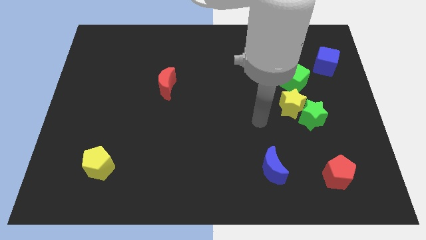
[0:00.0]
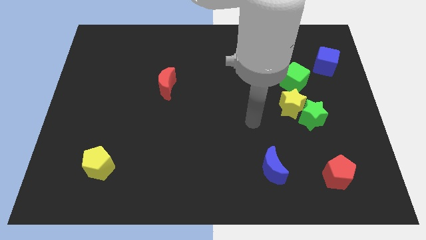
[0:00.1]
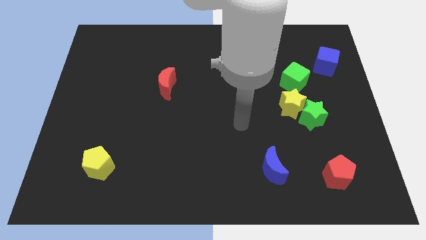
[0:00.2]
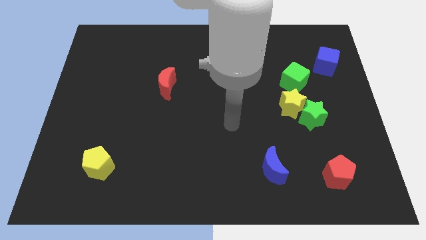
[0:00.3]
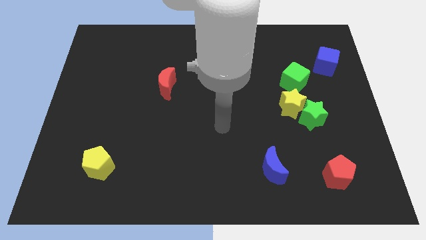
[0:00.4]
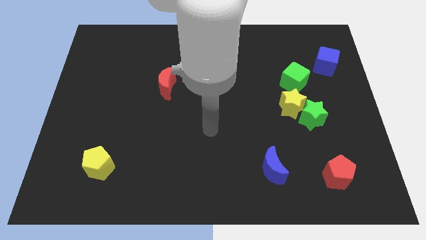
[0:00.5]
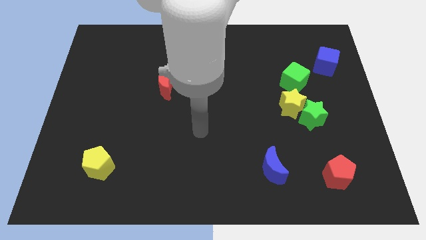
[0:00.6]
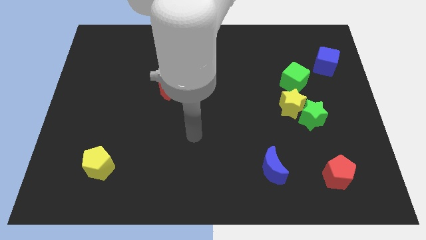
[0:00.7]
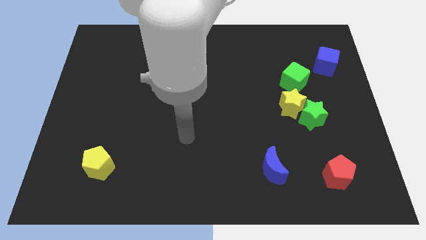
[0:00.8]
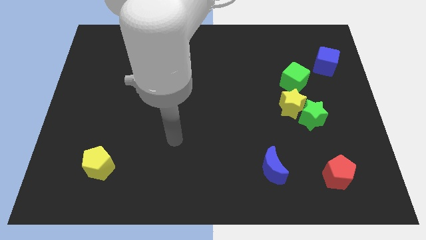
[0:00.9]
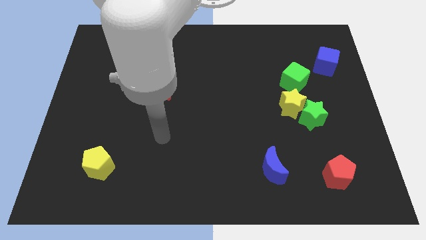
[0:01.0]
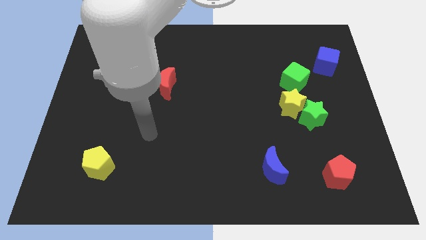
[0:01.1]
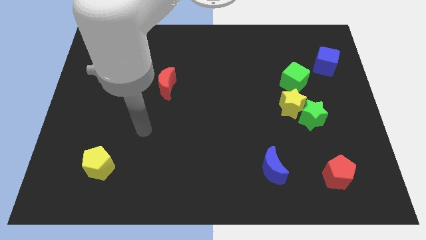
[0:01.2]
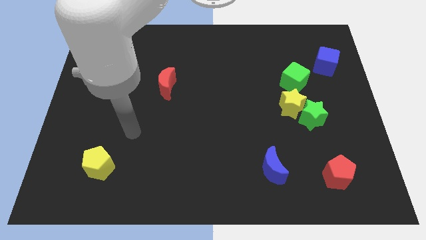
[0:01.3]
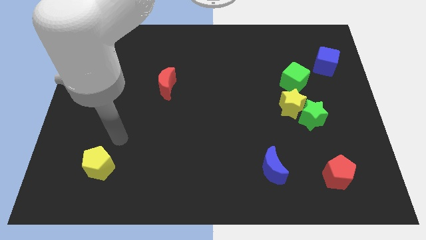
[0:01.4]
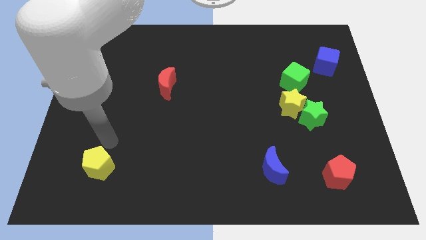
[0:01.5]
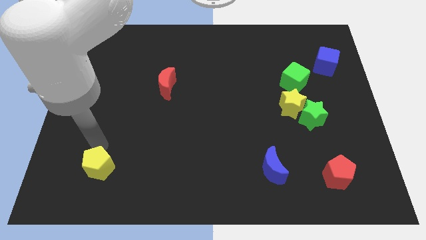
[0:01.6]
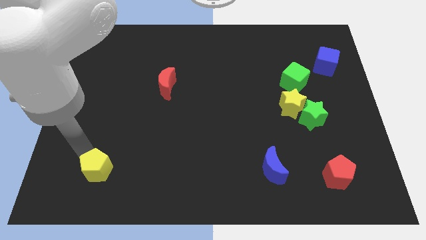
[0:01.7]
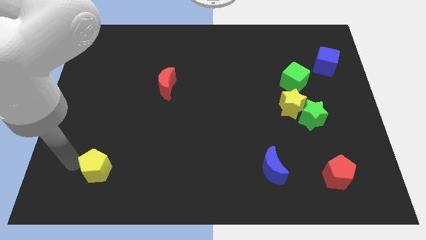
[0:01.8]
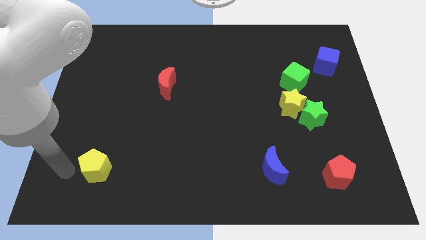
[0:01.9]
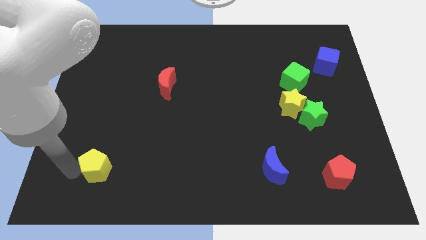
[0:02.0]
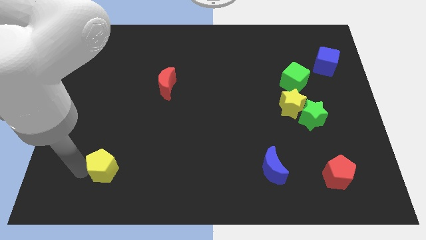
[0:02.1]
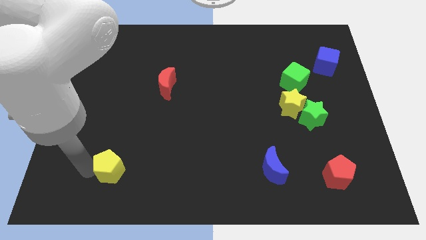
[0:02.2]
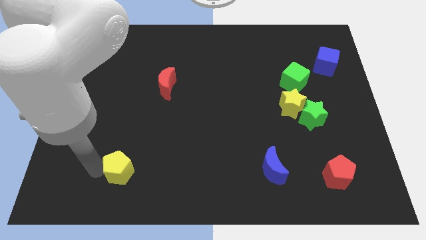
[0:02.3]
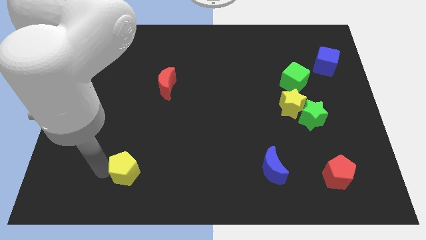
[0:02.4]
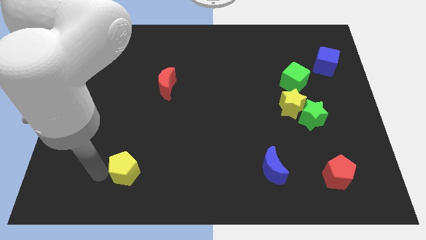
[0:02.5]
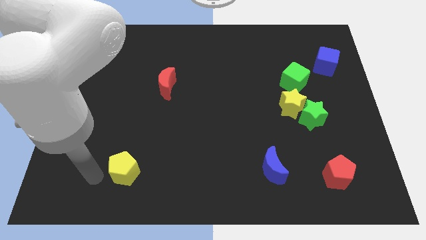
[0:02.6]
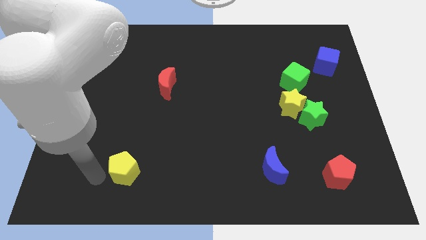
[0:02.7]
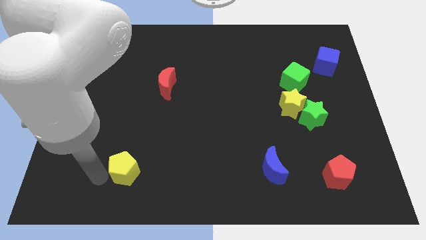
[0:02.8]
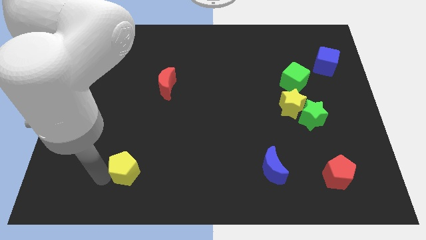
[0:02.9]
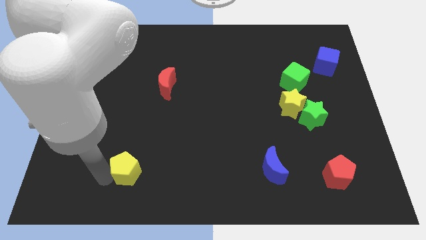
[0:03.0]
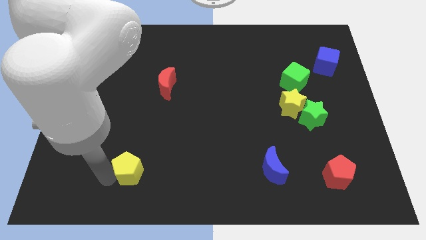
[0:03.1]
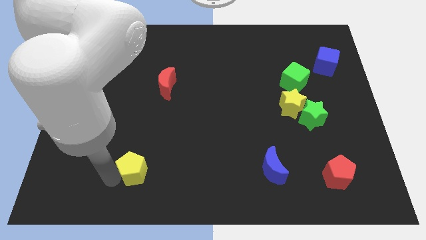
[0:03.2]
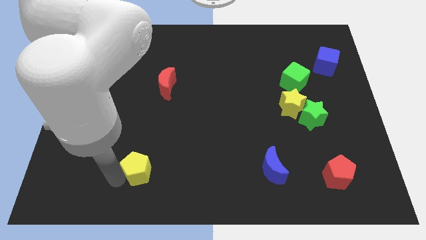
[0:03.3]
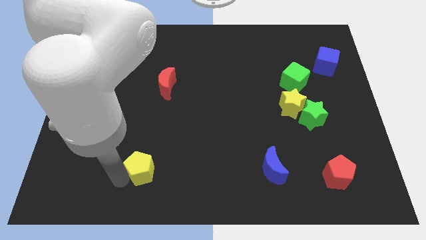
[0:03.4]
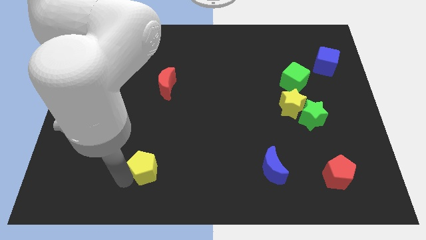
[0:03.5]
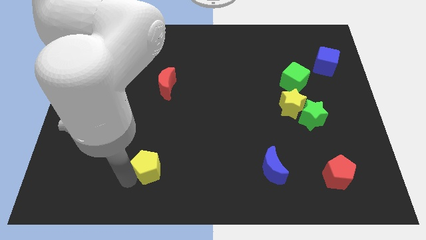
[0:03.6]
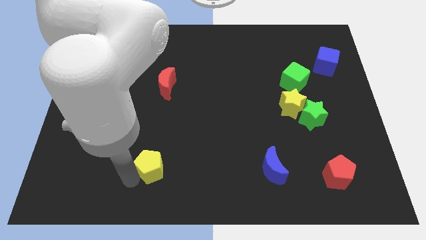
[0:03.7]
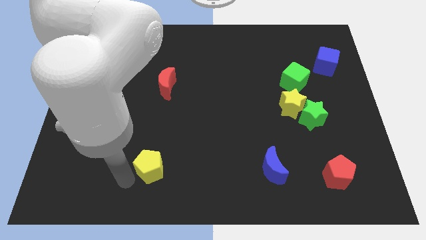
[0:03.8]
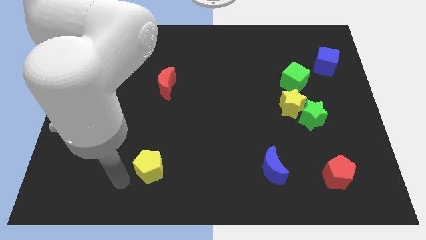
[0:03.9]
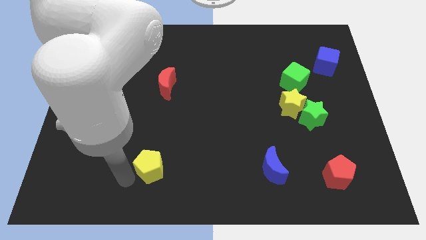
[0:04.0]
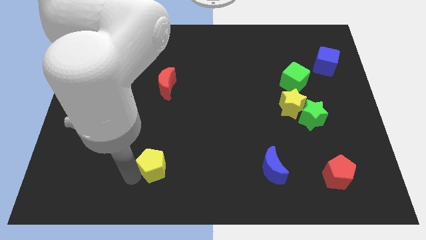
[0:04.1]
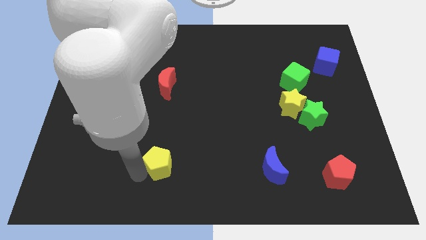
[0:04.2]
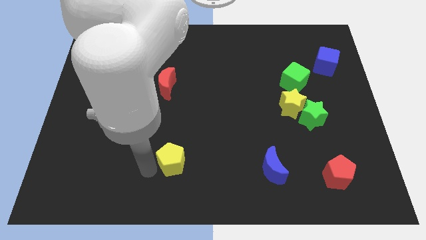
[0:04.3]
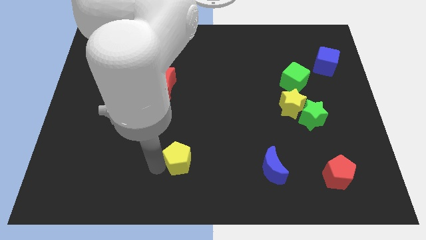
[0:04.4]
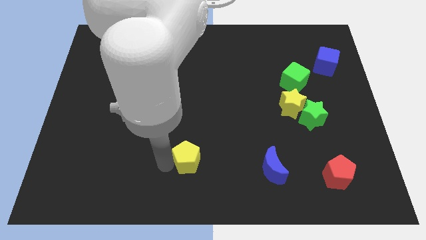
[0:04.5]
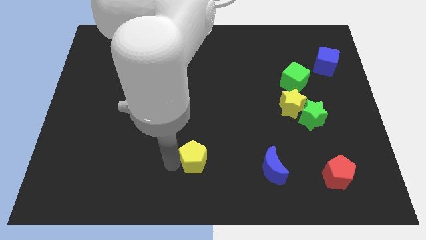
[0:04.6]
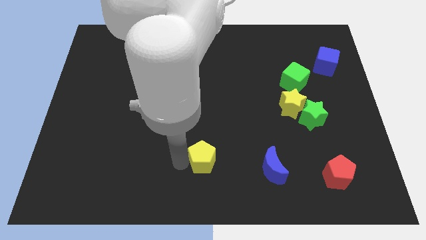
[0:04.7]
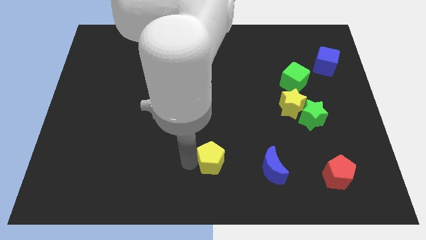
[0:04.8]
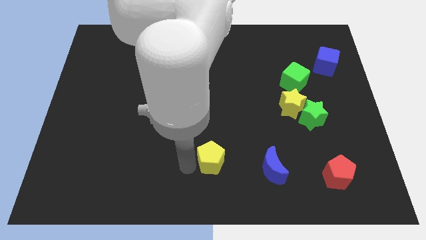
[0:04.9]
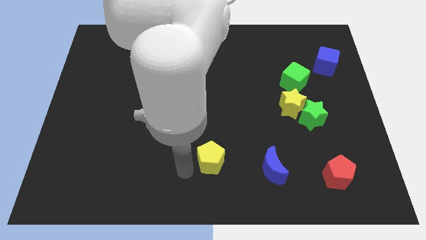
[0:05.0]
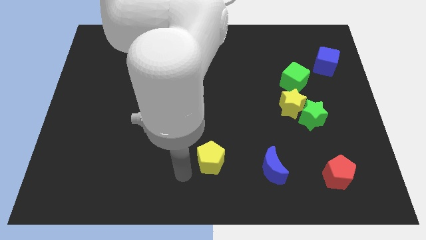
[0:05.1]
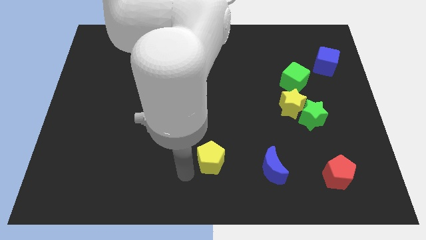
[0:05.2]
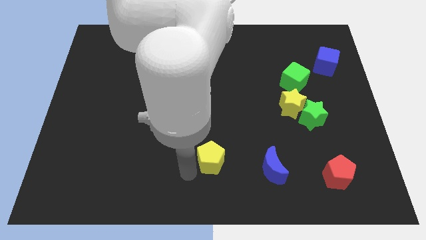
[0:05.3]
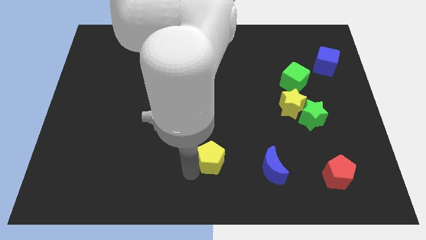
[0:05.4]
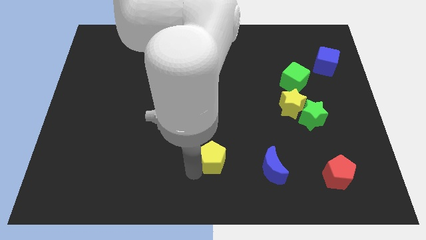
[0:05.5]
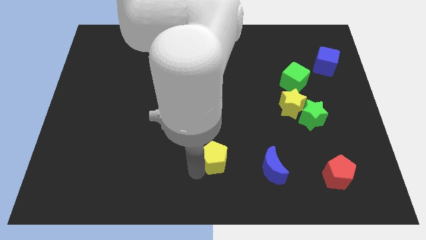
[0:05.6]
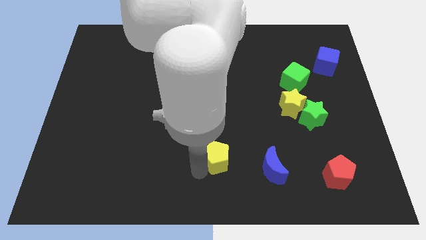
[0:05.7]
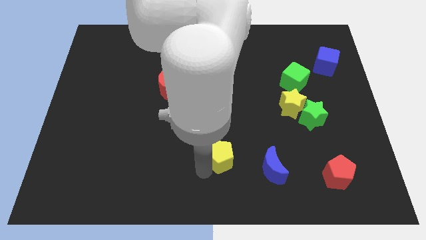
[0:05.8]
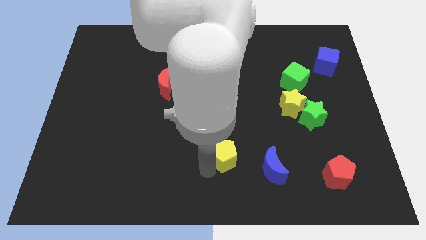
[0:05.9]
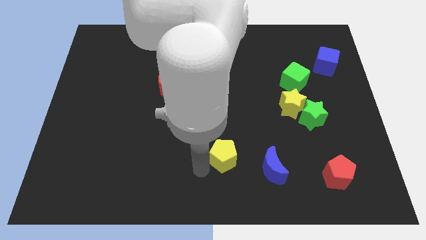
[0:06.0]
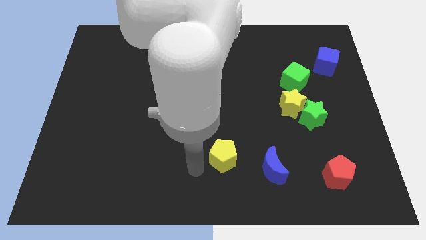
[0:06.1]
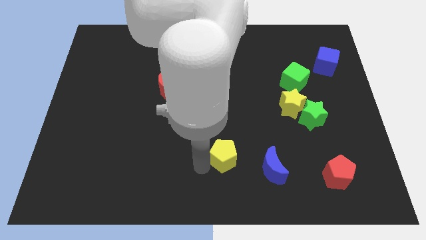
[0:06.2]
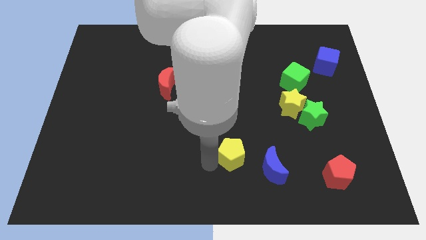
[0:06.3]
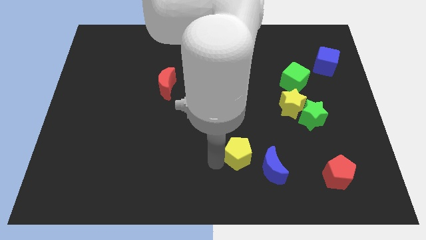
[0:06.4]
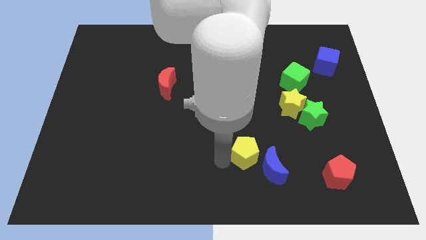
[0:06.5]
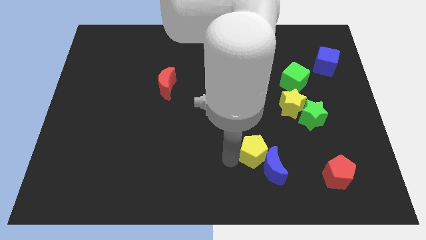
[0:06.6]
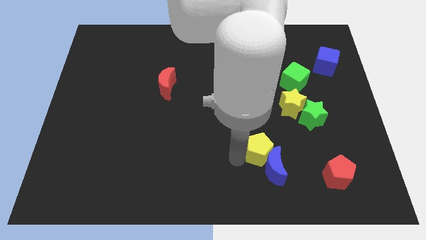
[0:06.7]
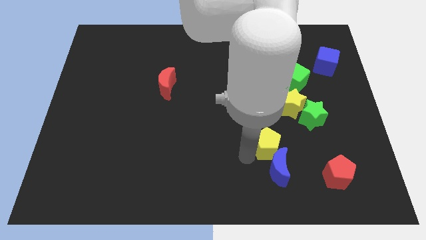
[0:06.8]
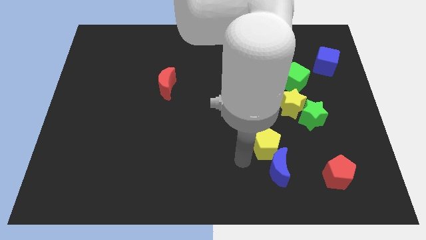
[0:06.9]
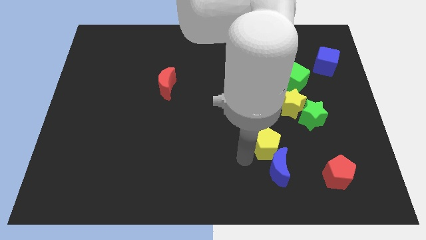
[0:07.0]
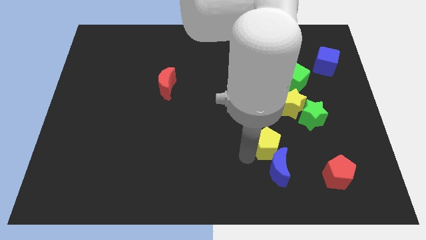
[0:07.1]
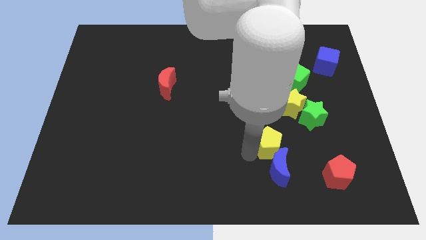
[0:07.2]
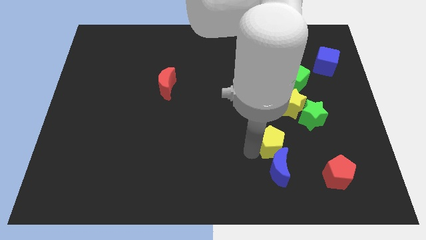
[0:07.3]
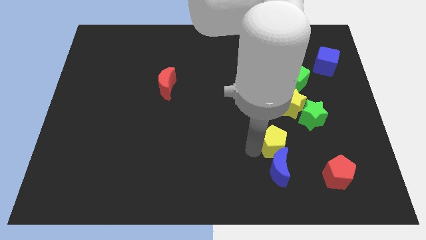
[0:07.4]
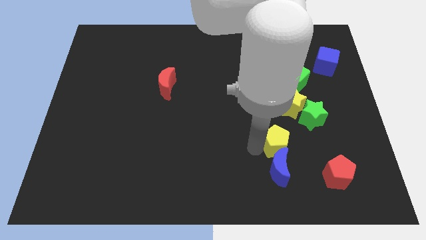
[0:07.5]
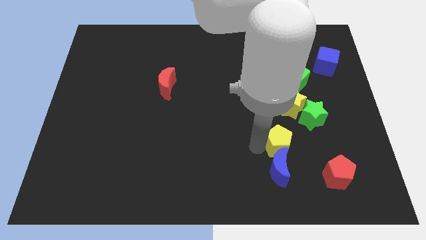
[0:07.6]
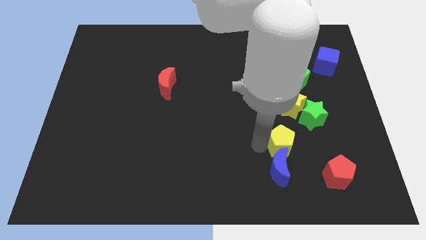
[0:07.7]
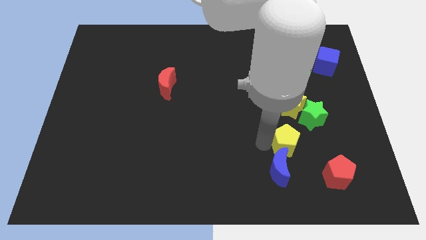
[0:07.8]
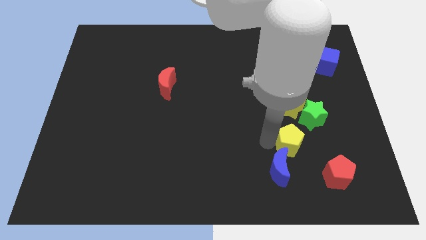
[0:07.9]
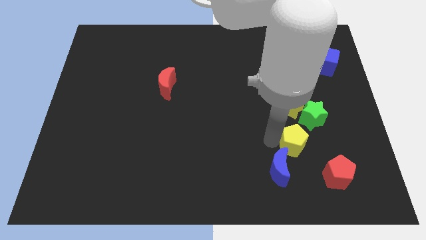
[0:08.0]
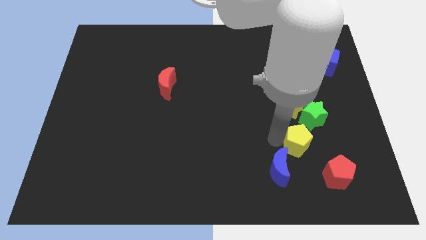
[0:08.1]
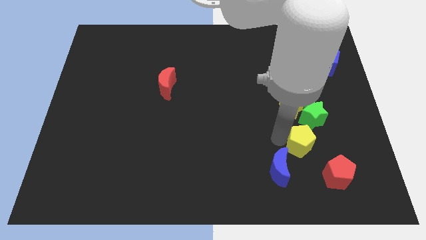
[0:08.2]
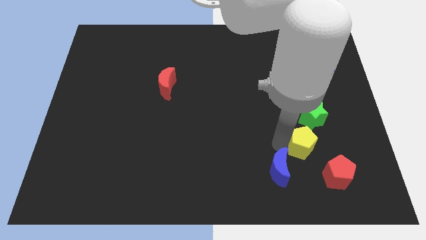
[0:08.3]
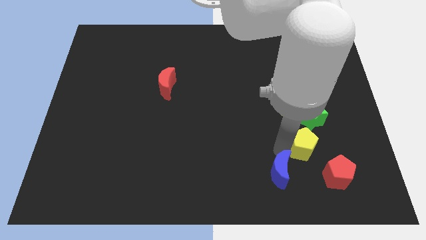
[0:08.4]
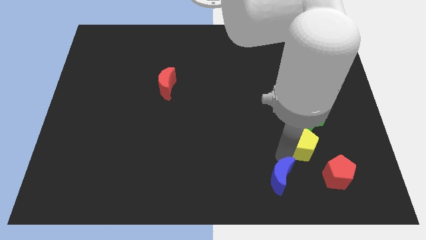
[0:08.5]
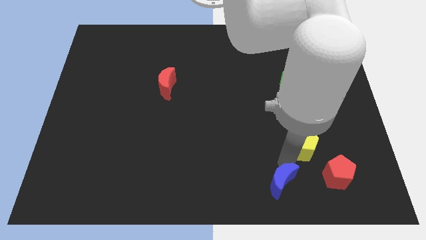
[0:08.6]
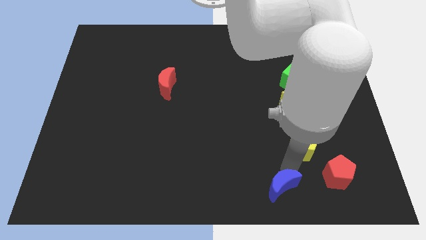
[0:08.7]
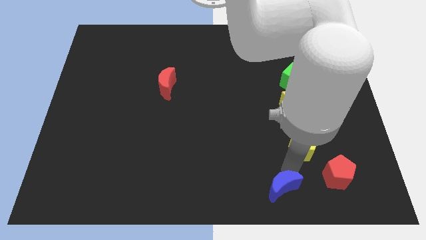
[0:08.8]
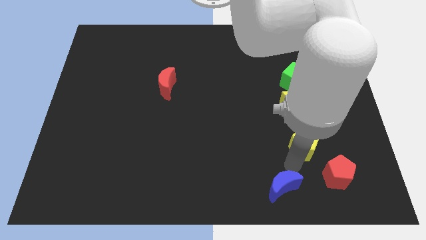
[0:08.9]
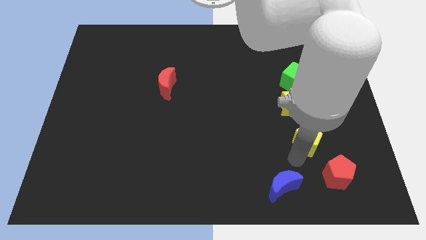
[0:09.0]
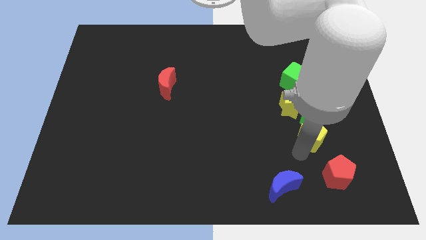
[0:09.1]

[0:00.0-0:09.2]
push the yellow pentagon diagonally down and to the right of the yellow star
